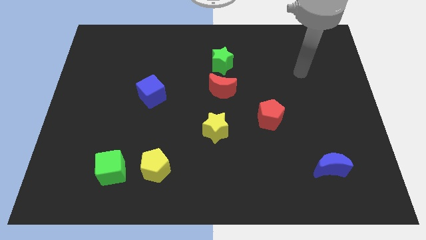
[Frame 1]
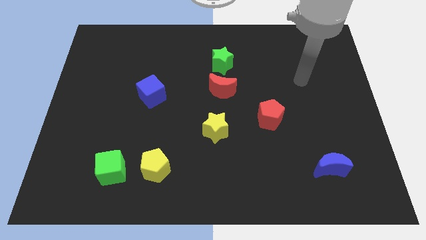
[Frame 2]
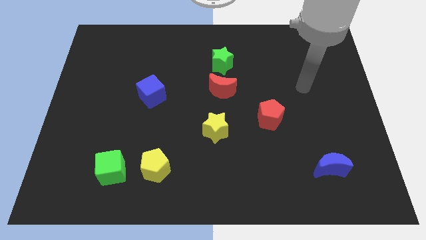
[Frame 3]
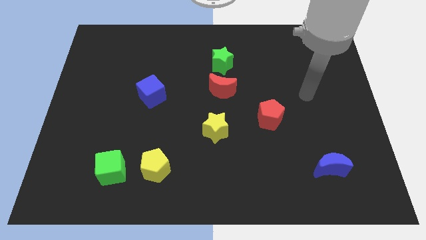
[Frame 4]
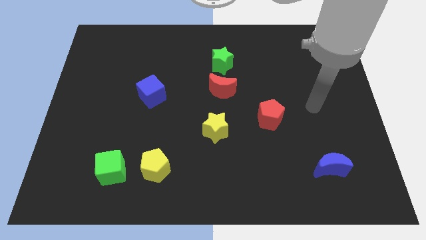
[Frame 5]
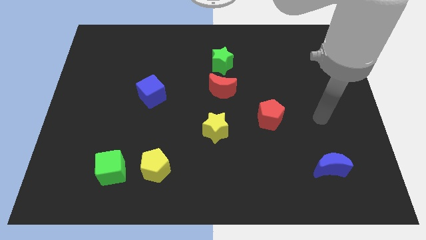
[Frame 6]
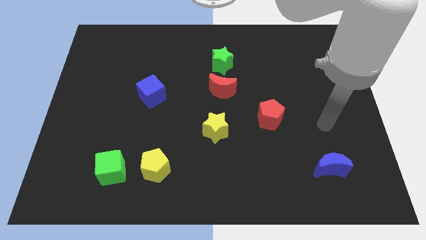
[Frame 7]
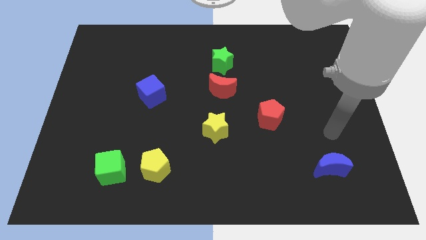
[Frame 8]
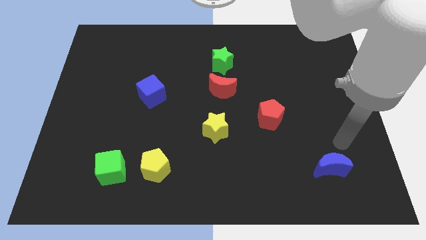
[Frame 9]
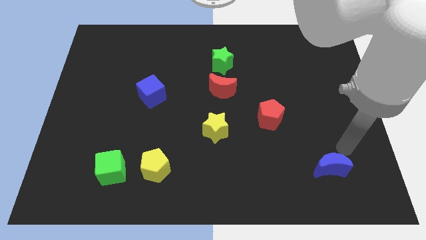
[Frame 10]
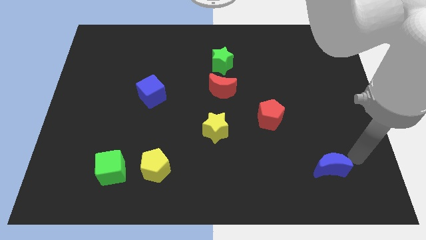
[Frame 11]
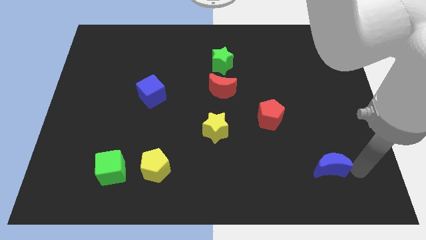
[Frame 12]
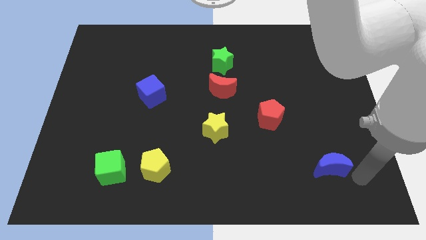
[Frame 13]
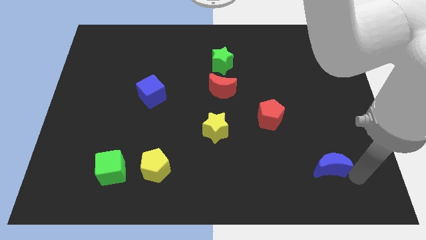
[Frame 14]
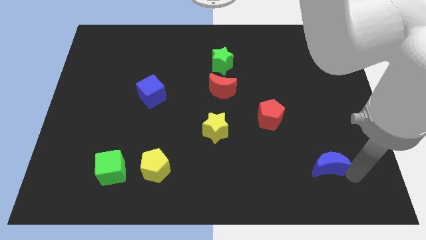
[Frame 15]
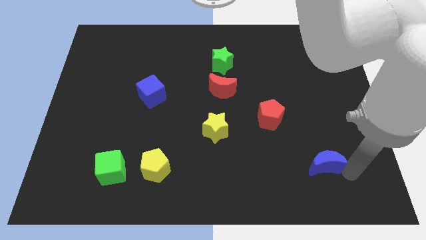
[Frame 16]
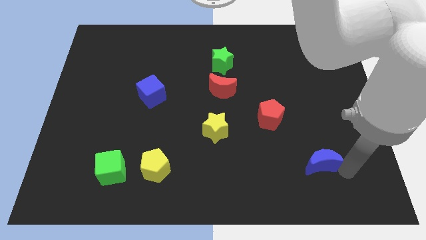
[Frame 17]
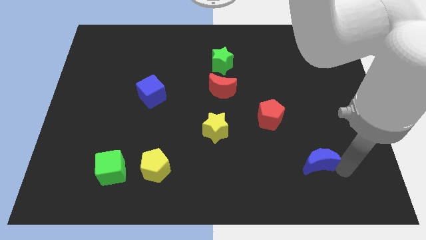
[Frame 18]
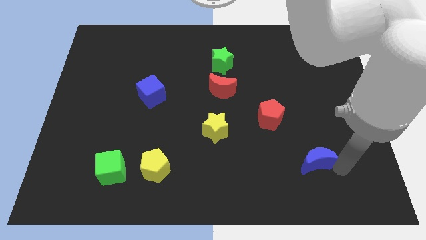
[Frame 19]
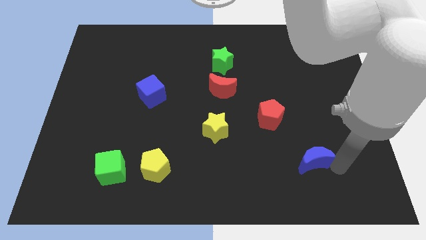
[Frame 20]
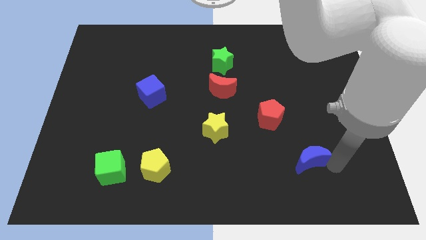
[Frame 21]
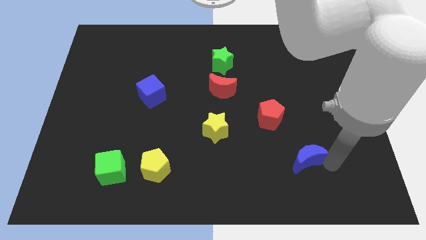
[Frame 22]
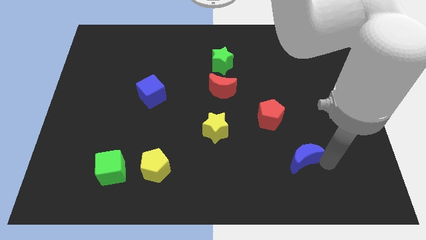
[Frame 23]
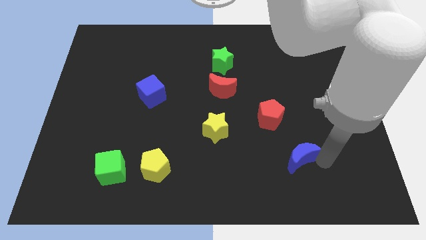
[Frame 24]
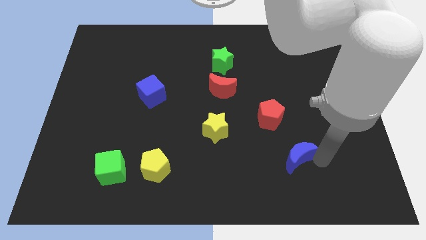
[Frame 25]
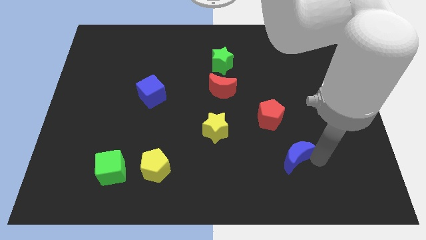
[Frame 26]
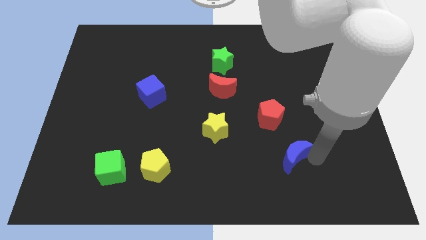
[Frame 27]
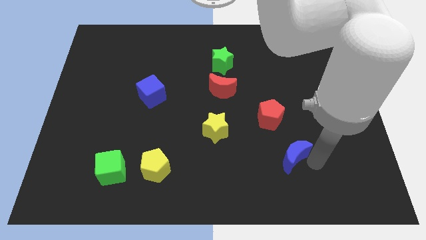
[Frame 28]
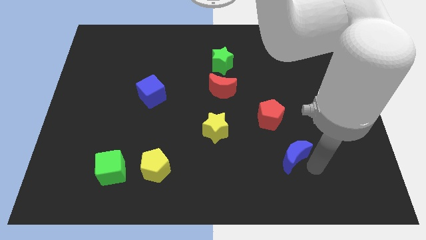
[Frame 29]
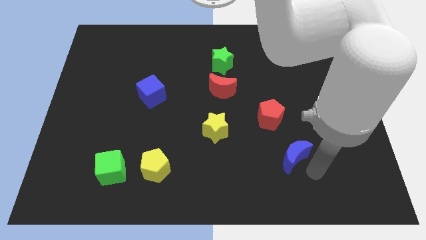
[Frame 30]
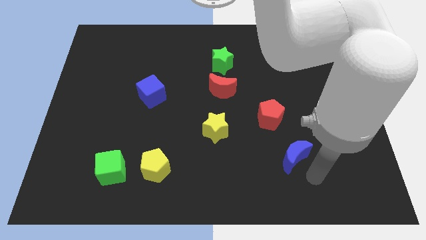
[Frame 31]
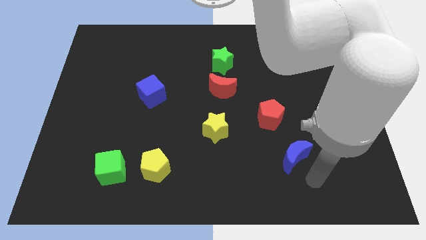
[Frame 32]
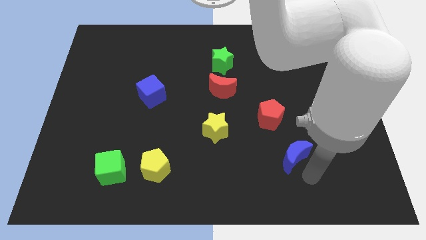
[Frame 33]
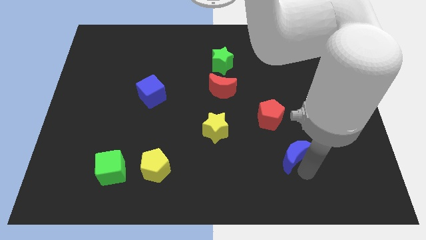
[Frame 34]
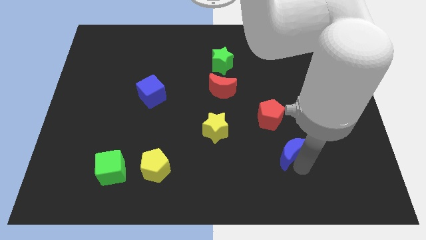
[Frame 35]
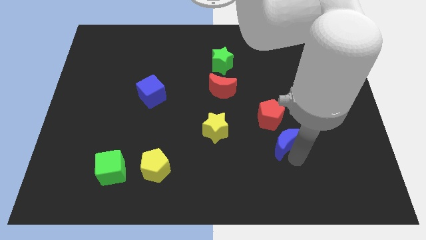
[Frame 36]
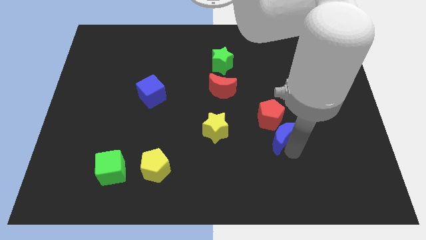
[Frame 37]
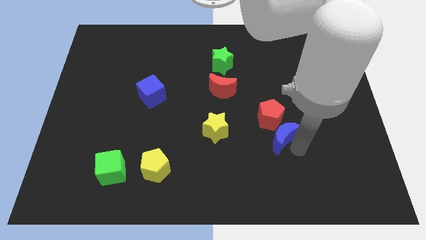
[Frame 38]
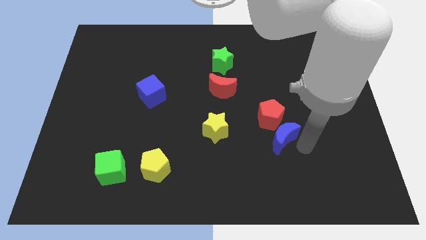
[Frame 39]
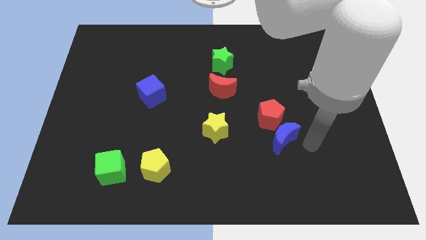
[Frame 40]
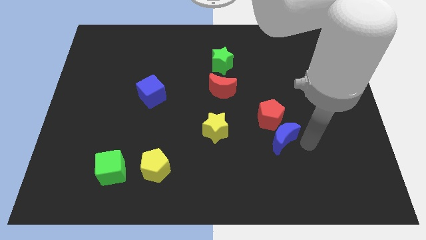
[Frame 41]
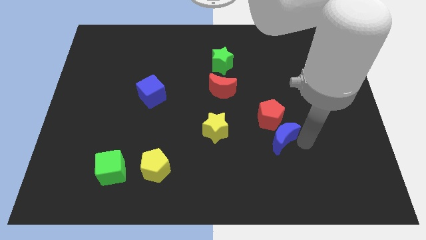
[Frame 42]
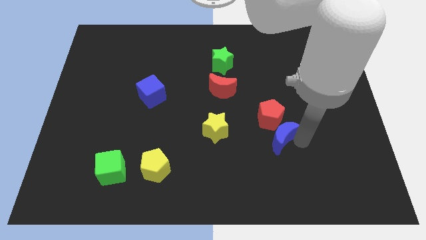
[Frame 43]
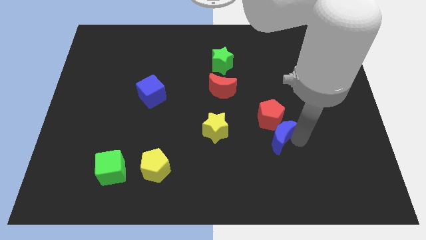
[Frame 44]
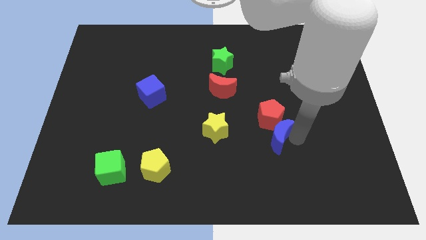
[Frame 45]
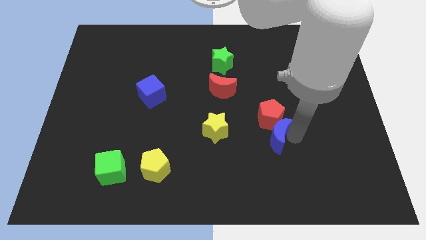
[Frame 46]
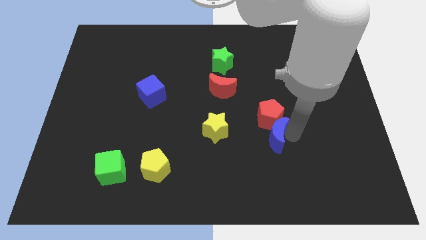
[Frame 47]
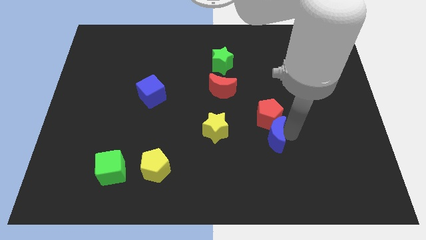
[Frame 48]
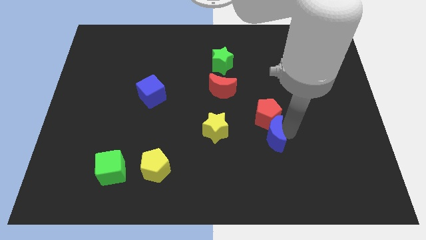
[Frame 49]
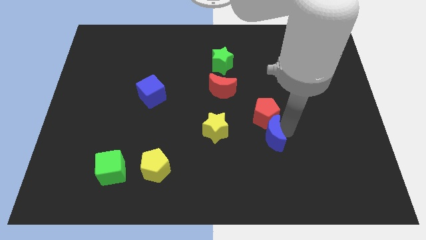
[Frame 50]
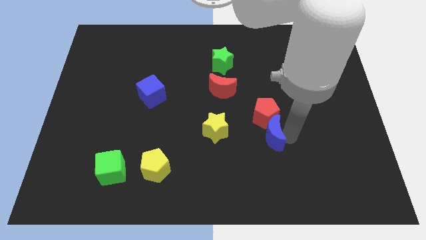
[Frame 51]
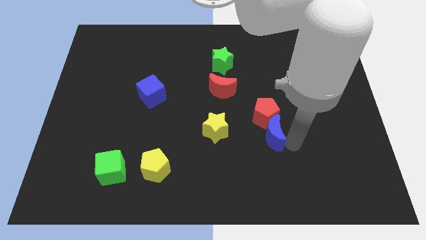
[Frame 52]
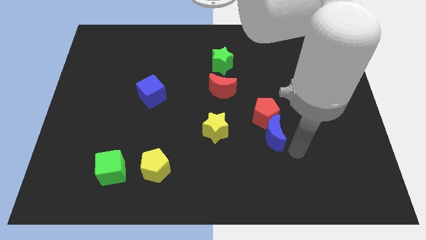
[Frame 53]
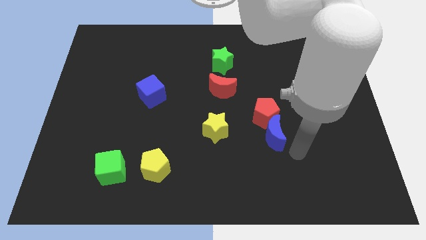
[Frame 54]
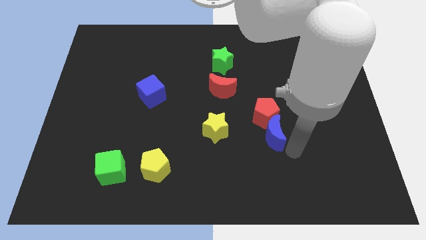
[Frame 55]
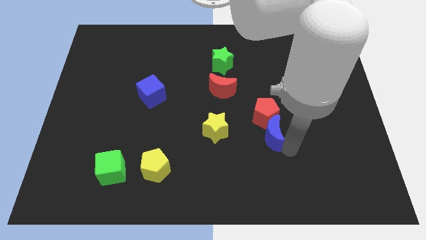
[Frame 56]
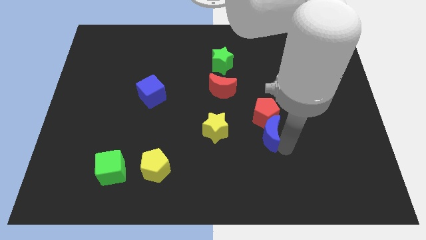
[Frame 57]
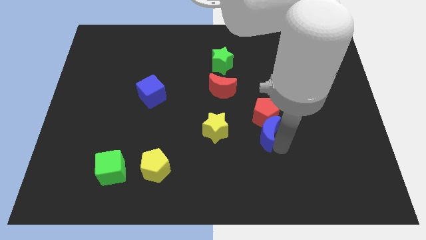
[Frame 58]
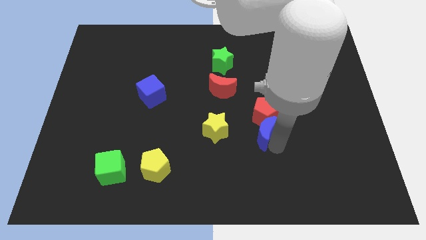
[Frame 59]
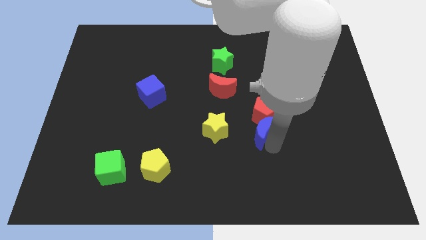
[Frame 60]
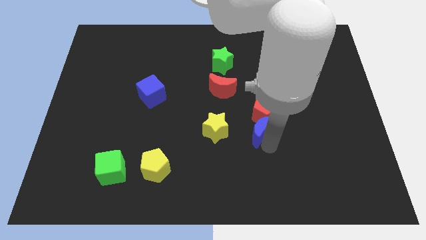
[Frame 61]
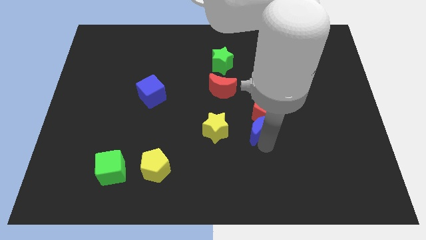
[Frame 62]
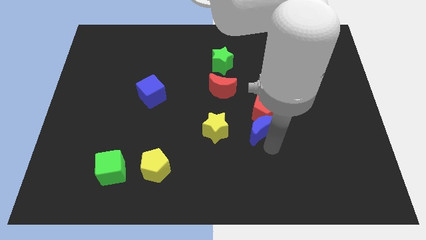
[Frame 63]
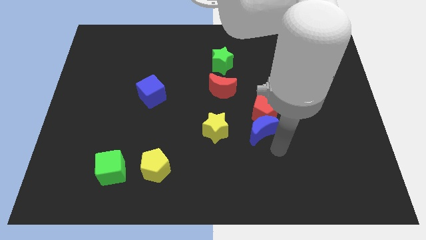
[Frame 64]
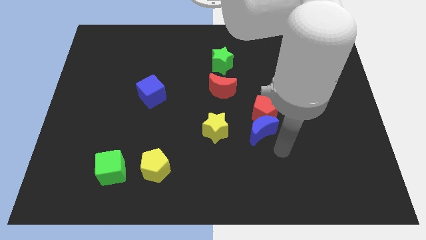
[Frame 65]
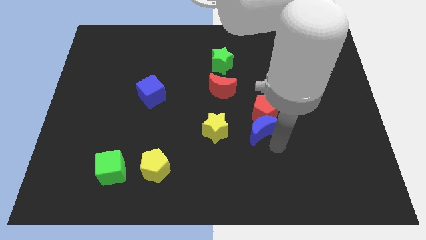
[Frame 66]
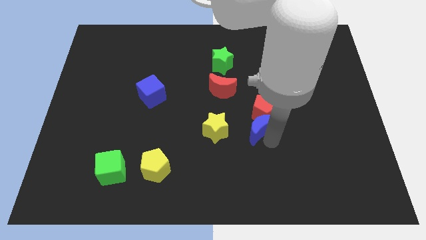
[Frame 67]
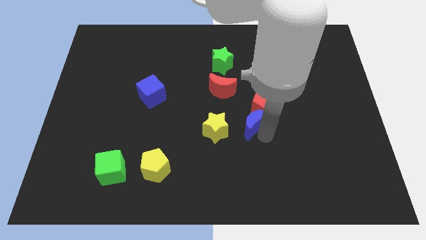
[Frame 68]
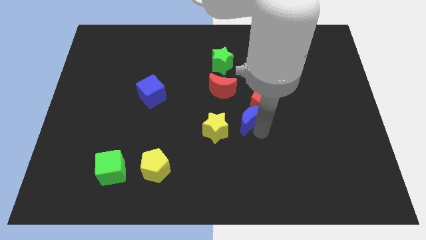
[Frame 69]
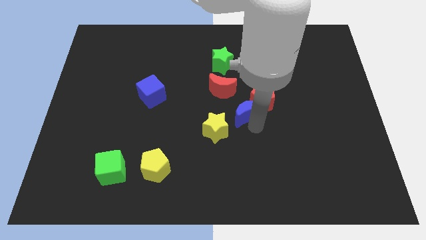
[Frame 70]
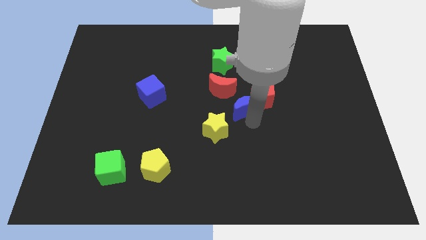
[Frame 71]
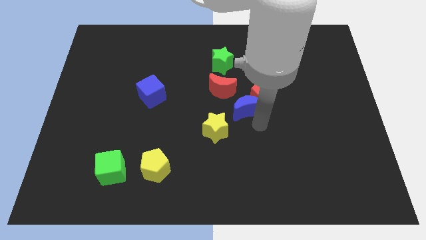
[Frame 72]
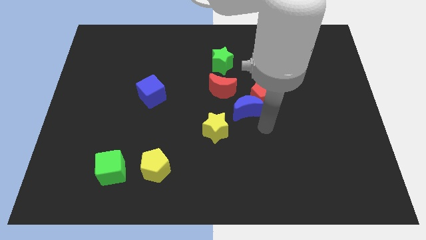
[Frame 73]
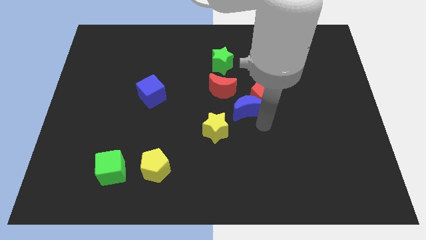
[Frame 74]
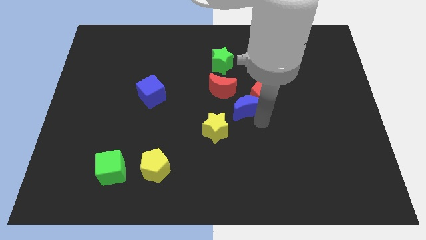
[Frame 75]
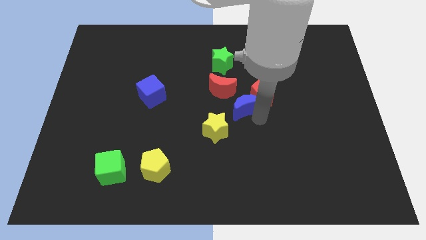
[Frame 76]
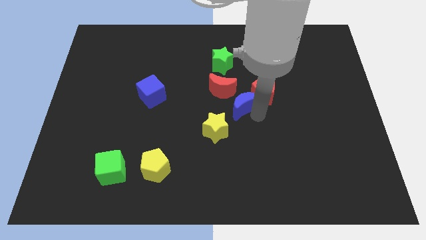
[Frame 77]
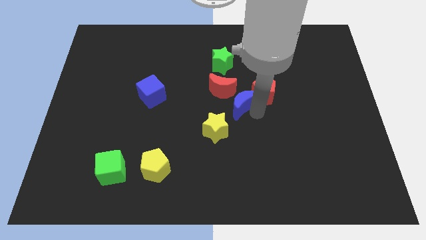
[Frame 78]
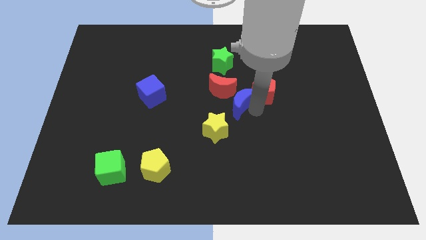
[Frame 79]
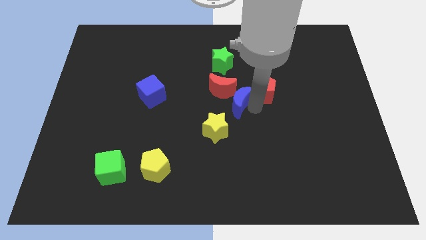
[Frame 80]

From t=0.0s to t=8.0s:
push the blue moon to the red moon

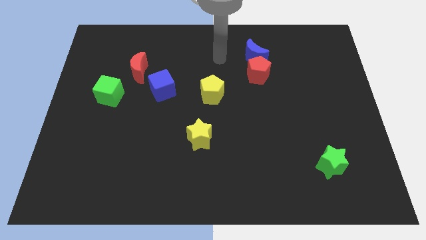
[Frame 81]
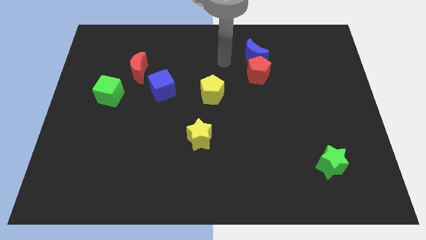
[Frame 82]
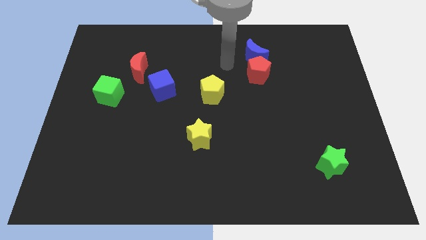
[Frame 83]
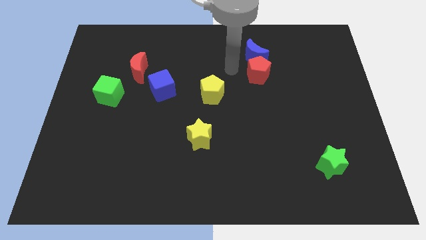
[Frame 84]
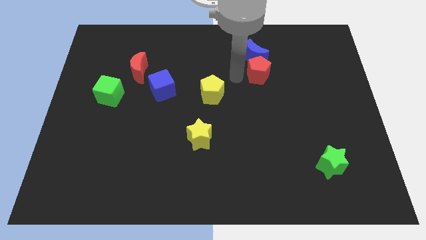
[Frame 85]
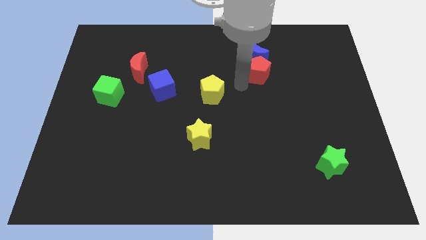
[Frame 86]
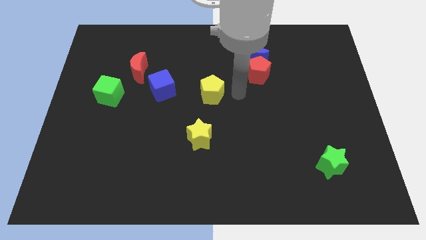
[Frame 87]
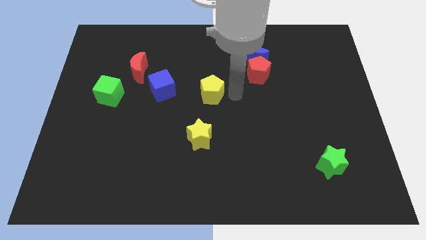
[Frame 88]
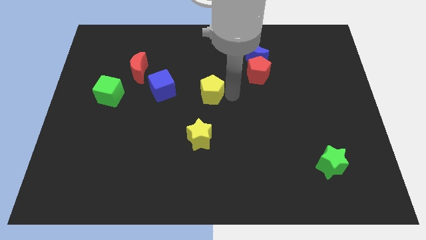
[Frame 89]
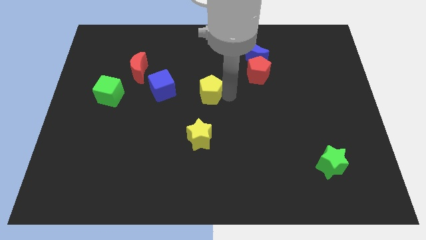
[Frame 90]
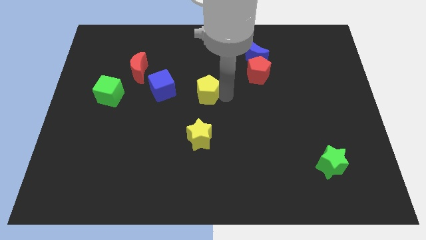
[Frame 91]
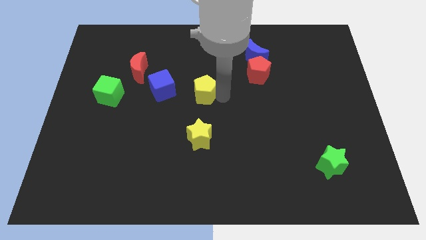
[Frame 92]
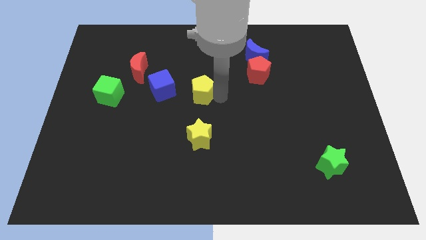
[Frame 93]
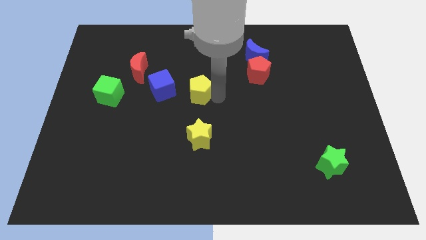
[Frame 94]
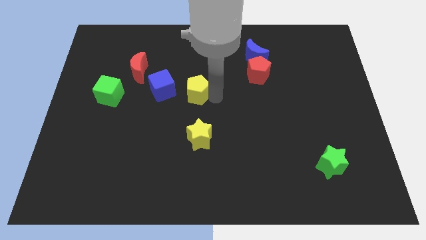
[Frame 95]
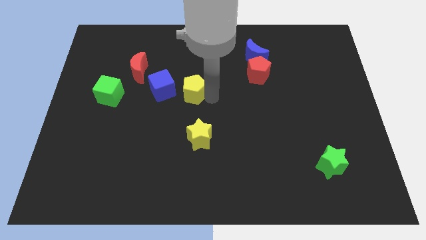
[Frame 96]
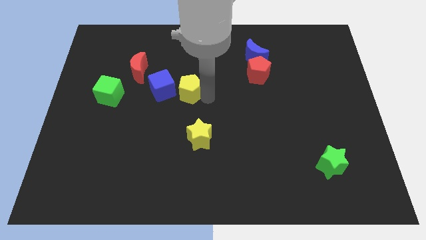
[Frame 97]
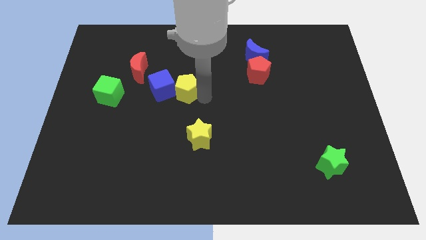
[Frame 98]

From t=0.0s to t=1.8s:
put the yellow pentagon to the blue cube
